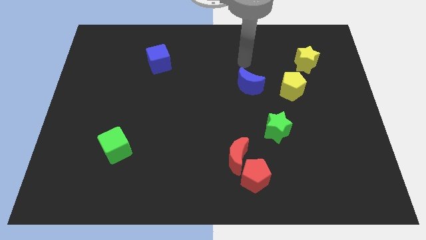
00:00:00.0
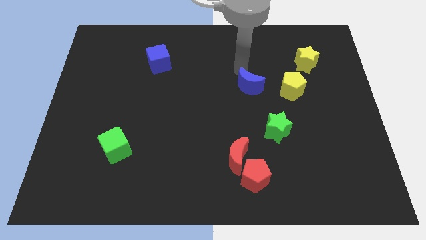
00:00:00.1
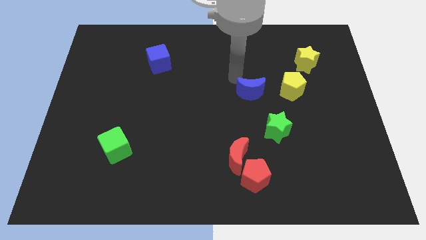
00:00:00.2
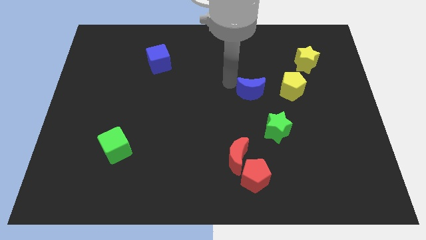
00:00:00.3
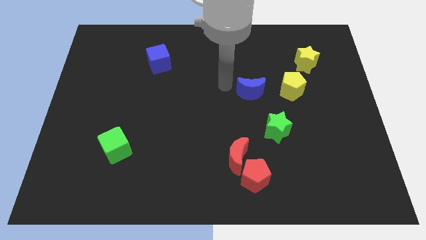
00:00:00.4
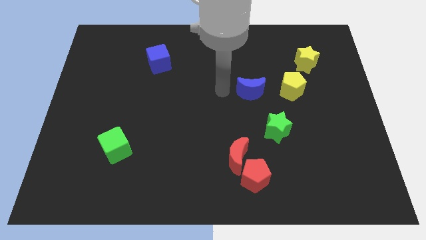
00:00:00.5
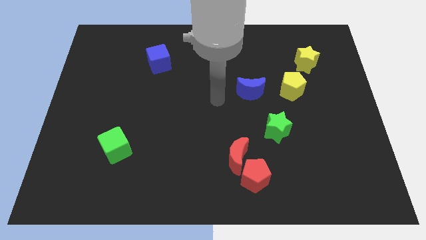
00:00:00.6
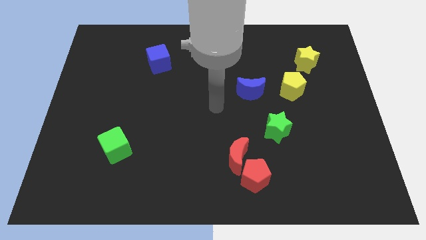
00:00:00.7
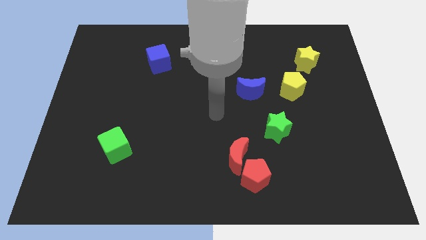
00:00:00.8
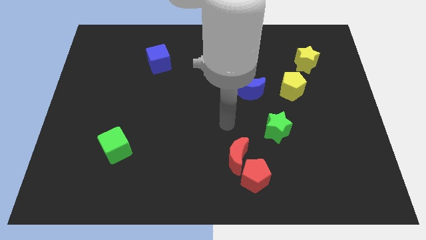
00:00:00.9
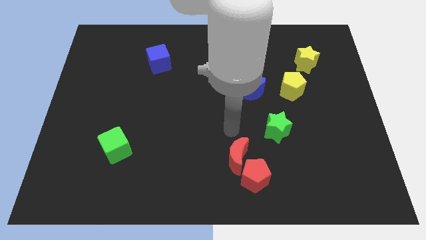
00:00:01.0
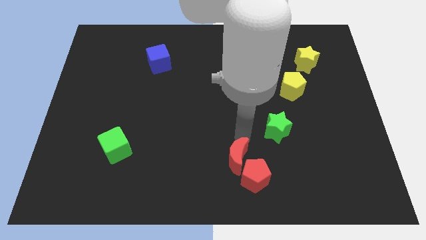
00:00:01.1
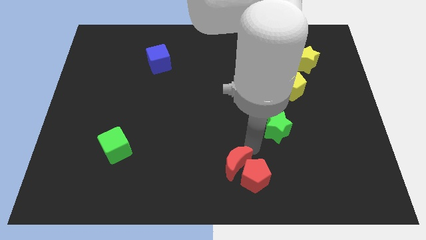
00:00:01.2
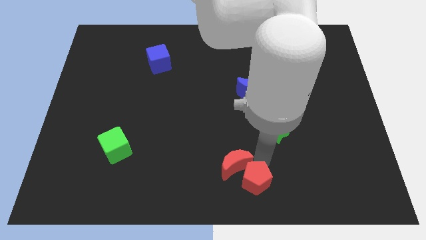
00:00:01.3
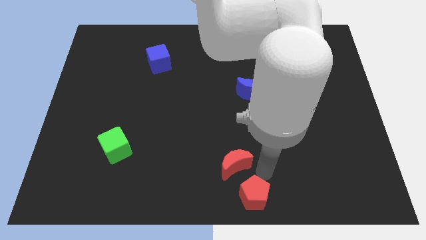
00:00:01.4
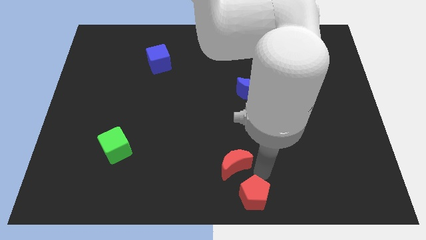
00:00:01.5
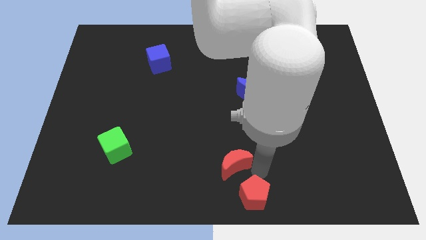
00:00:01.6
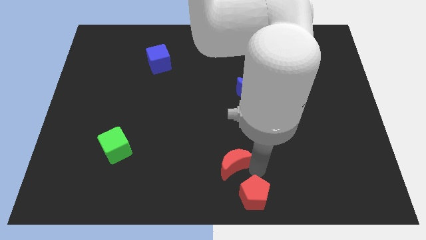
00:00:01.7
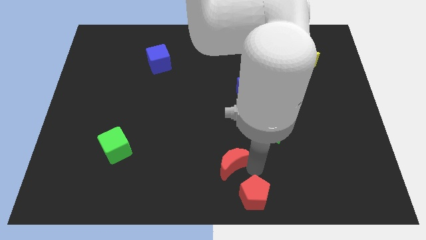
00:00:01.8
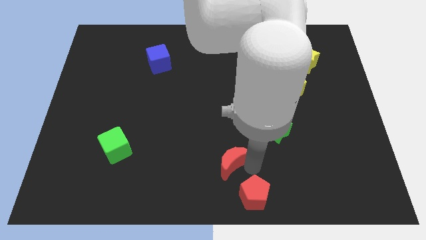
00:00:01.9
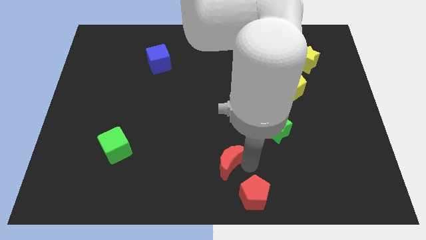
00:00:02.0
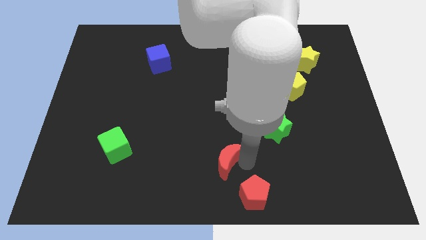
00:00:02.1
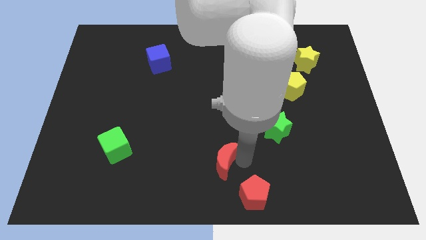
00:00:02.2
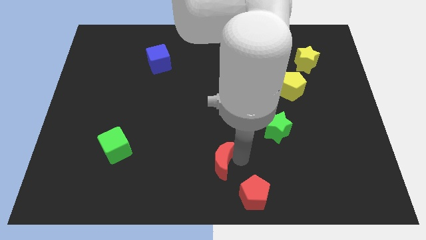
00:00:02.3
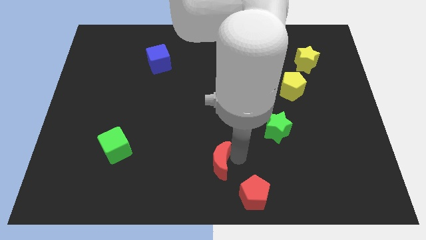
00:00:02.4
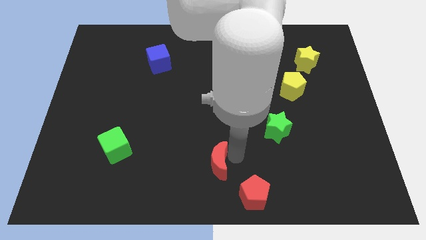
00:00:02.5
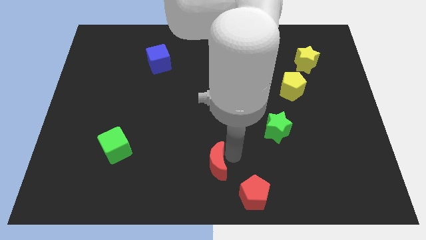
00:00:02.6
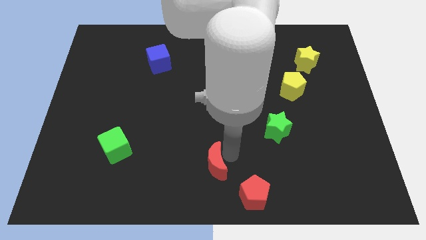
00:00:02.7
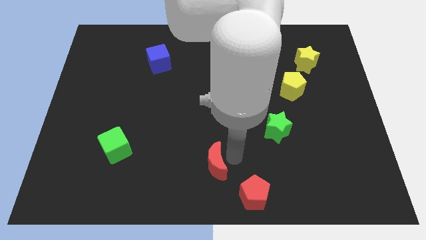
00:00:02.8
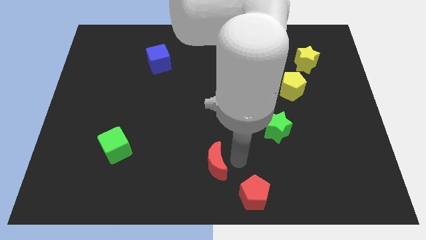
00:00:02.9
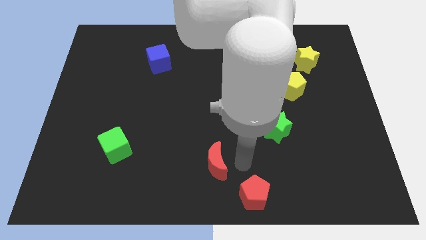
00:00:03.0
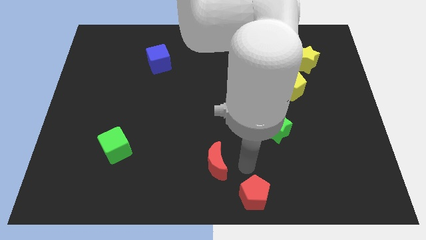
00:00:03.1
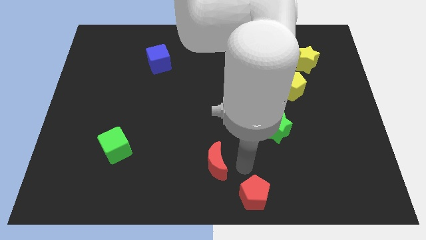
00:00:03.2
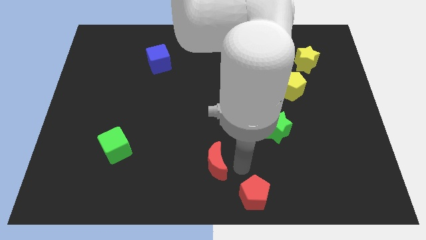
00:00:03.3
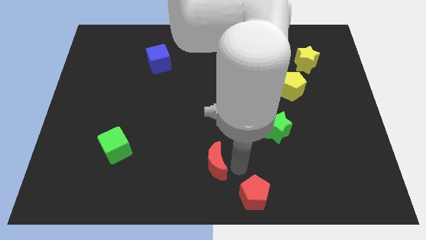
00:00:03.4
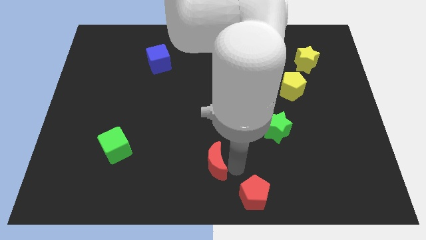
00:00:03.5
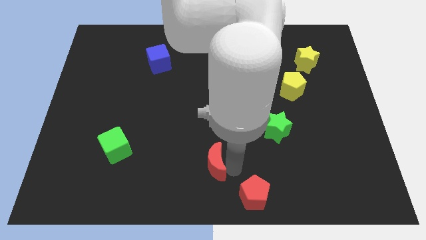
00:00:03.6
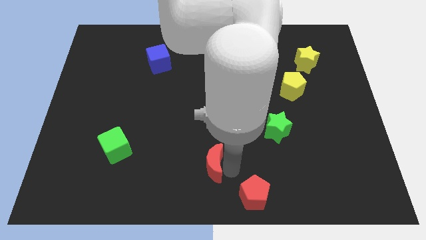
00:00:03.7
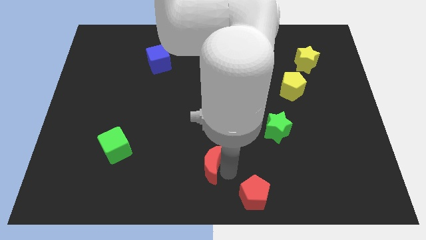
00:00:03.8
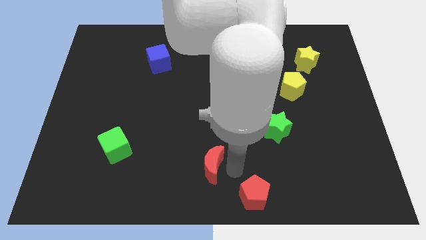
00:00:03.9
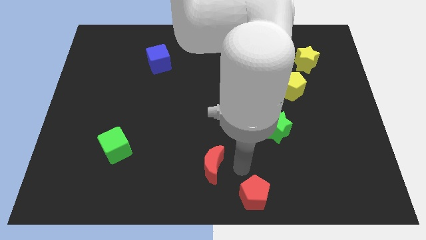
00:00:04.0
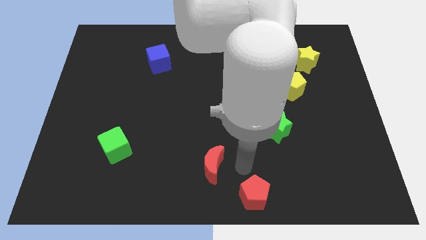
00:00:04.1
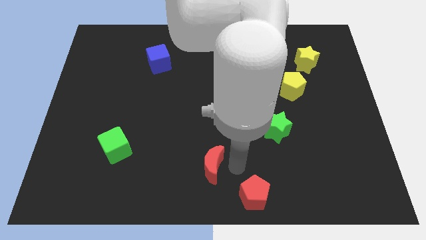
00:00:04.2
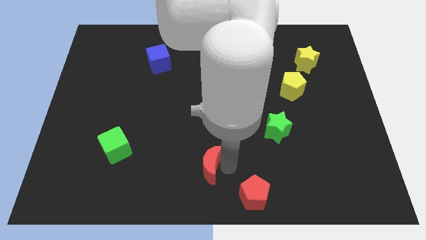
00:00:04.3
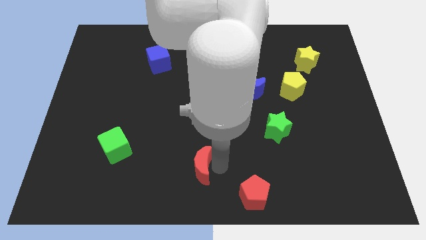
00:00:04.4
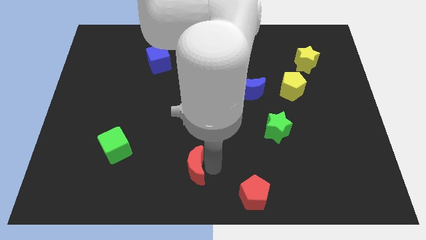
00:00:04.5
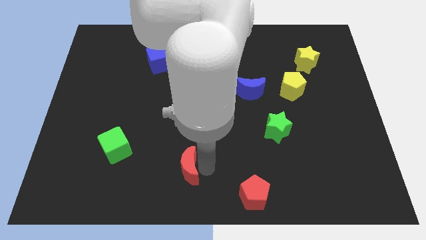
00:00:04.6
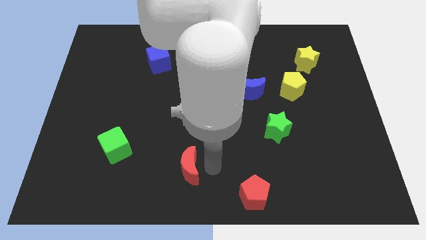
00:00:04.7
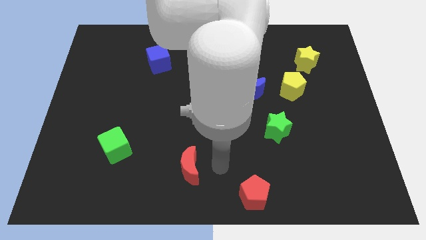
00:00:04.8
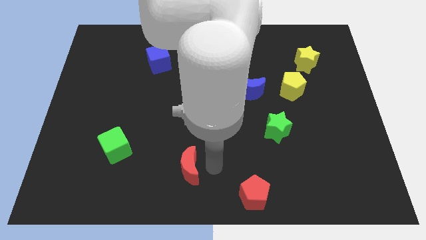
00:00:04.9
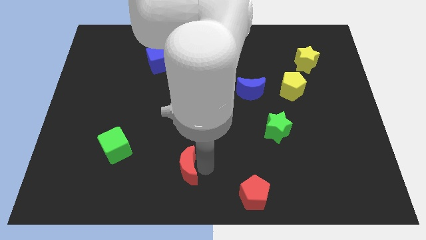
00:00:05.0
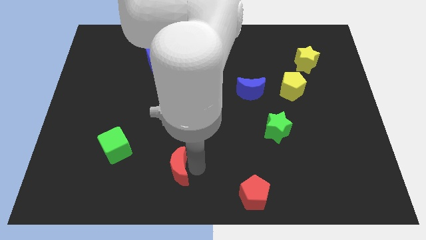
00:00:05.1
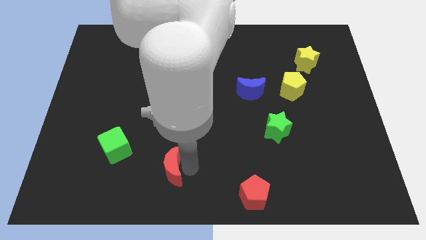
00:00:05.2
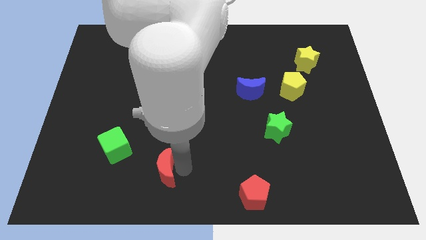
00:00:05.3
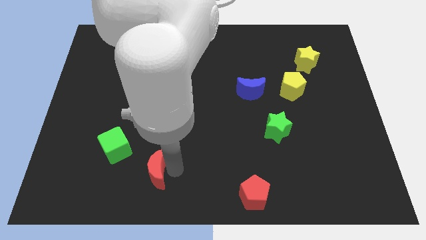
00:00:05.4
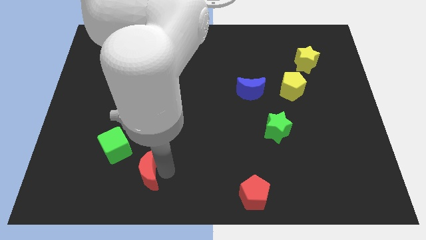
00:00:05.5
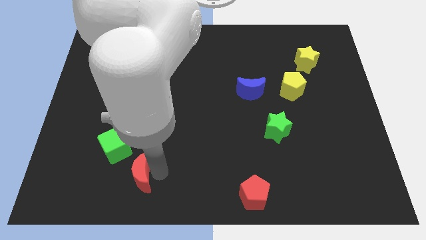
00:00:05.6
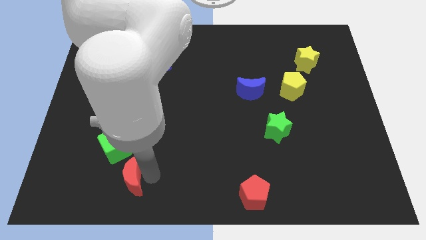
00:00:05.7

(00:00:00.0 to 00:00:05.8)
move the red moon to the left

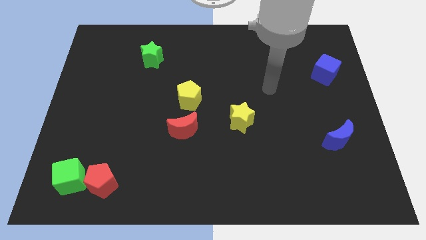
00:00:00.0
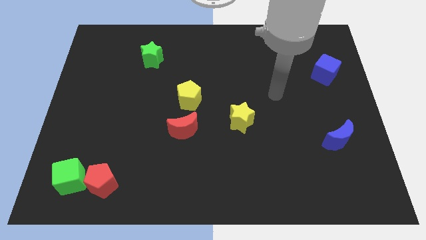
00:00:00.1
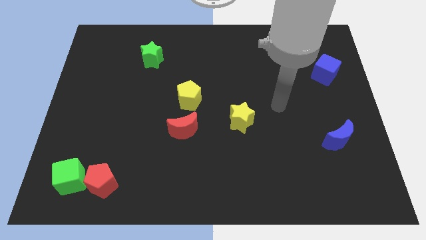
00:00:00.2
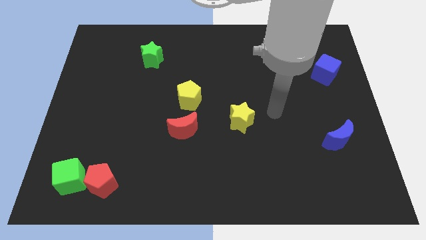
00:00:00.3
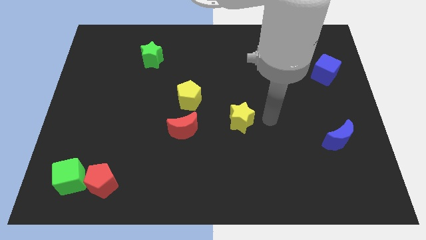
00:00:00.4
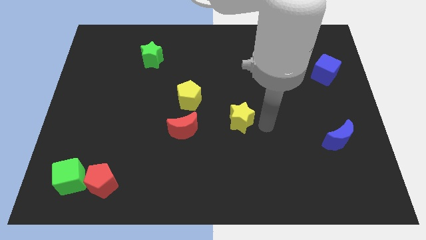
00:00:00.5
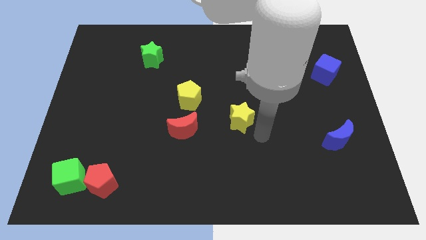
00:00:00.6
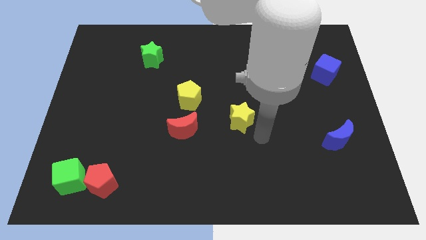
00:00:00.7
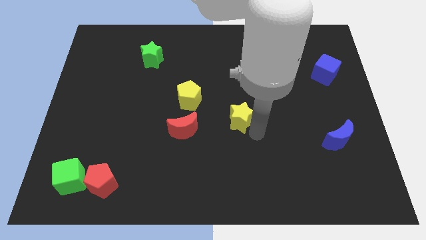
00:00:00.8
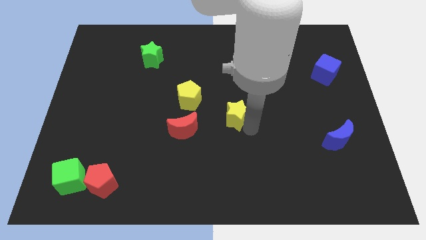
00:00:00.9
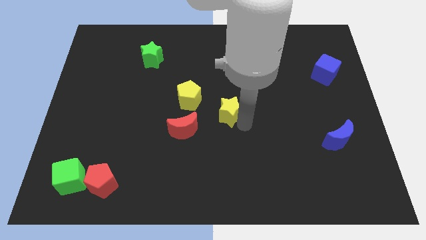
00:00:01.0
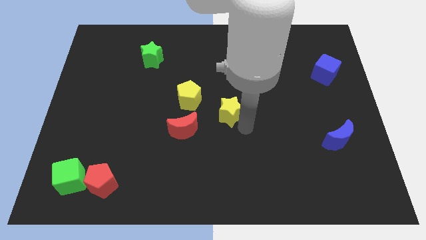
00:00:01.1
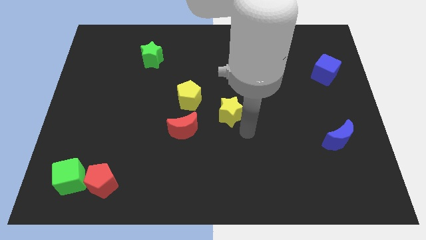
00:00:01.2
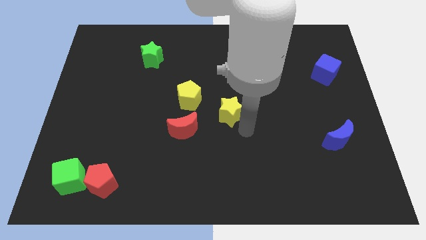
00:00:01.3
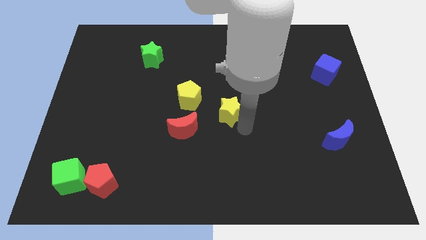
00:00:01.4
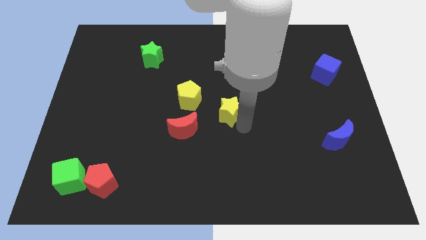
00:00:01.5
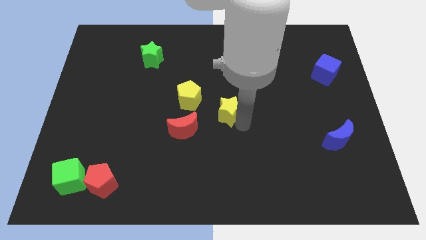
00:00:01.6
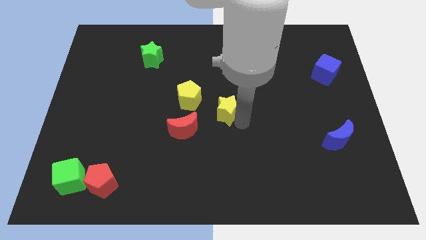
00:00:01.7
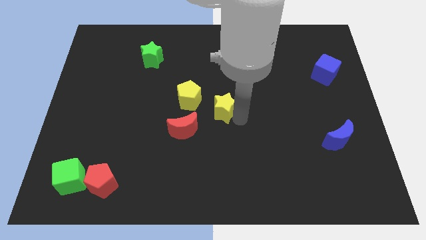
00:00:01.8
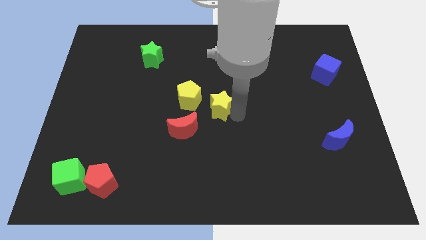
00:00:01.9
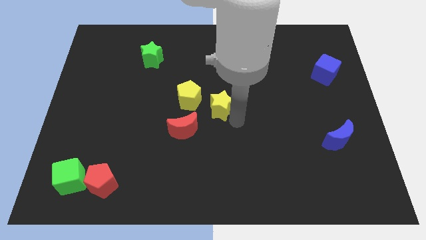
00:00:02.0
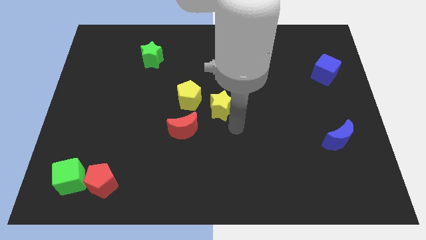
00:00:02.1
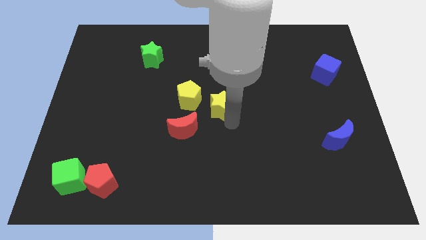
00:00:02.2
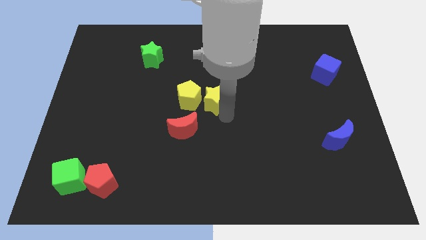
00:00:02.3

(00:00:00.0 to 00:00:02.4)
move the yellow star up and to the left diagonally a little bit
